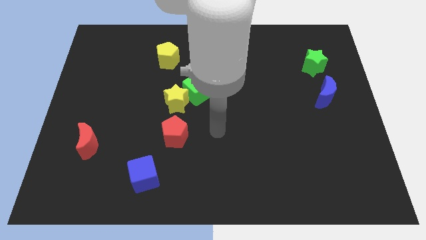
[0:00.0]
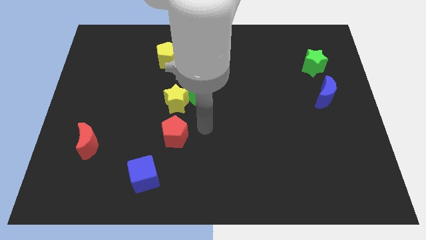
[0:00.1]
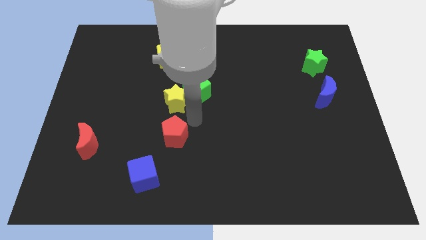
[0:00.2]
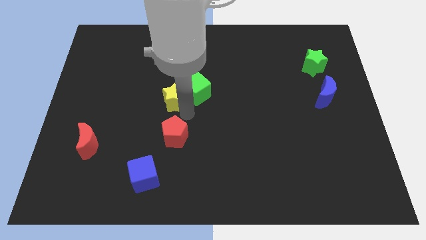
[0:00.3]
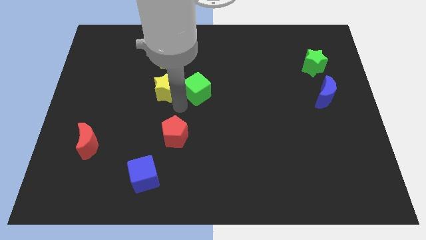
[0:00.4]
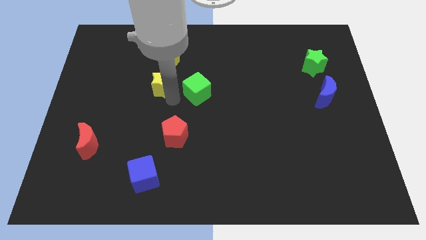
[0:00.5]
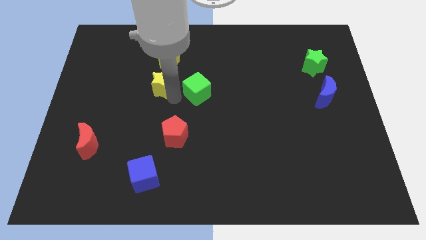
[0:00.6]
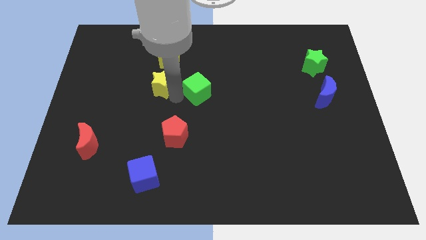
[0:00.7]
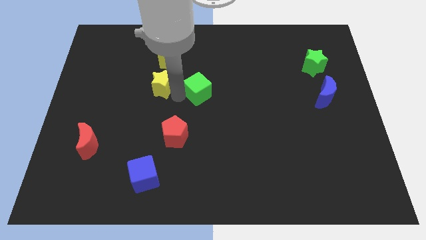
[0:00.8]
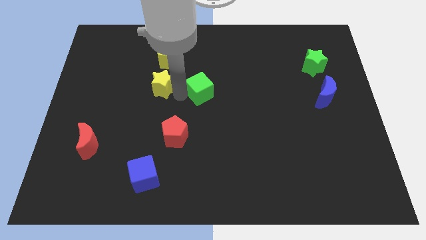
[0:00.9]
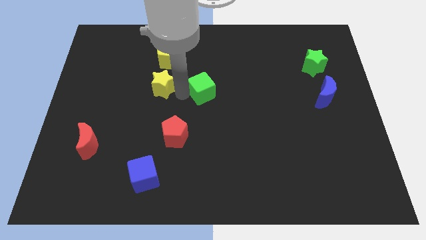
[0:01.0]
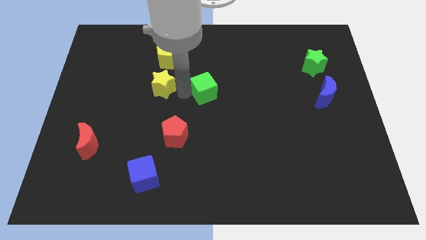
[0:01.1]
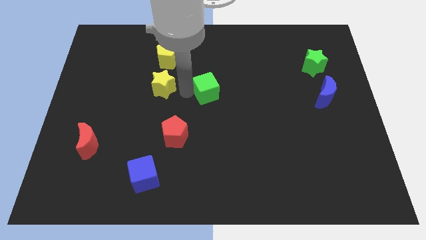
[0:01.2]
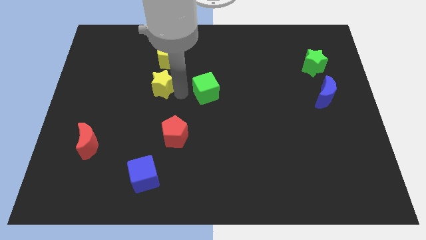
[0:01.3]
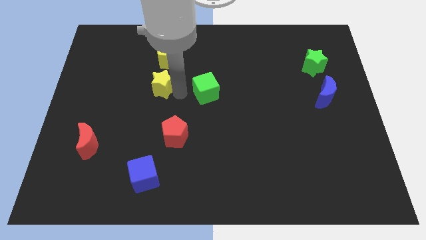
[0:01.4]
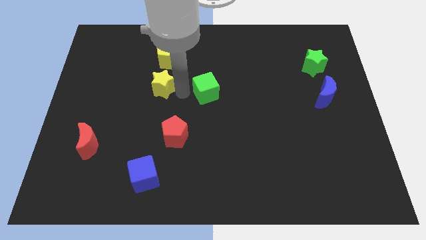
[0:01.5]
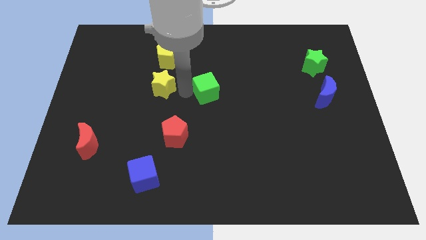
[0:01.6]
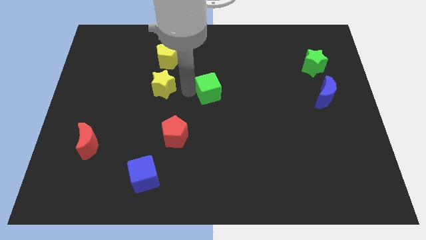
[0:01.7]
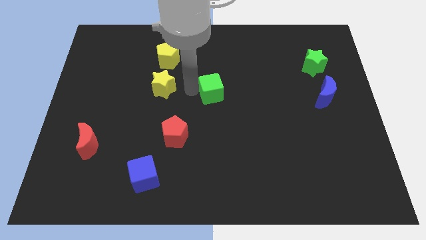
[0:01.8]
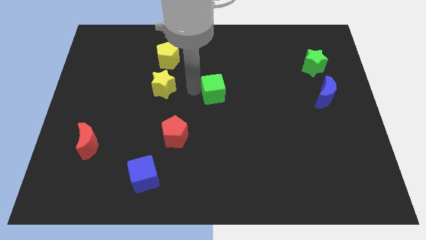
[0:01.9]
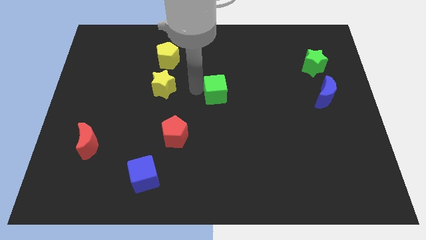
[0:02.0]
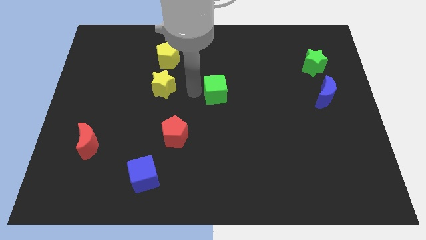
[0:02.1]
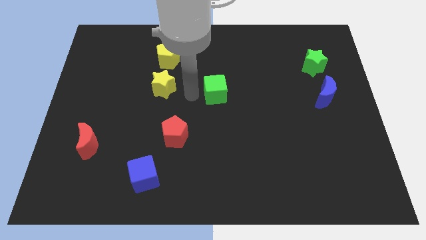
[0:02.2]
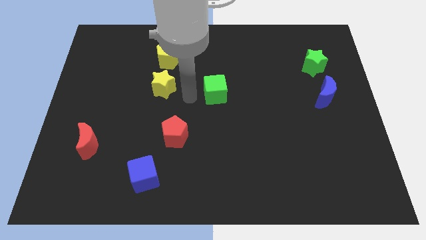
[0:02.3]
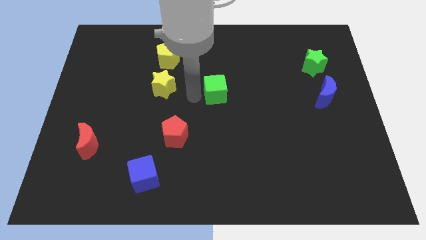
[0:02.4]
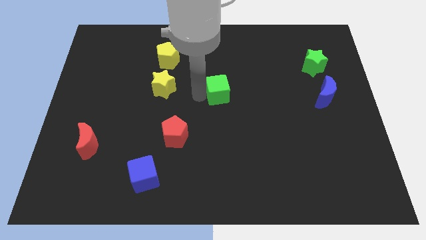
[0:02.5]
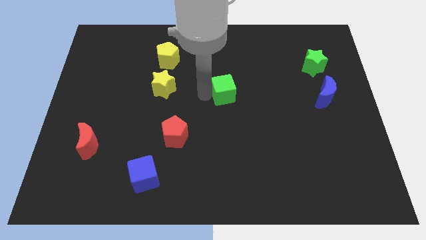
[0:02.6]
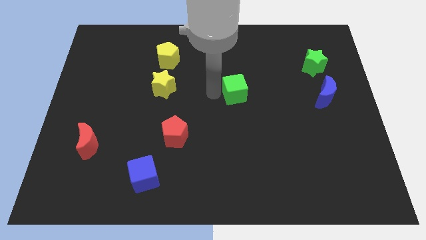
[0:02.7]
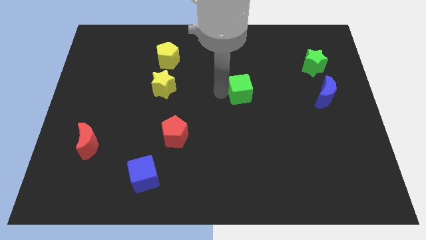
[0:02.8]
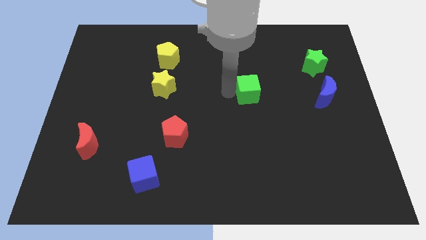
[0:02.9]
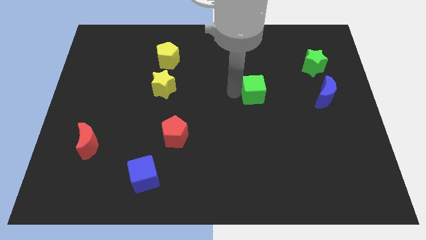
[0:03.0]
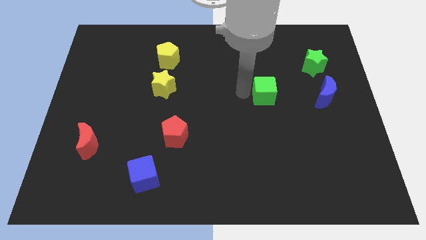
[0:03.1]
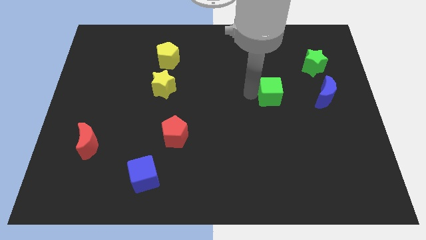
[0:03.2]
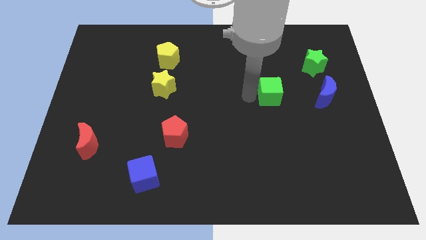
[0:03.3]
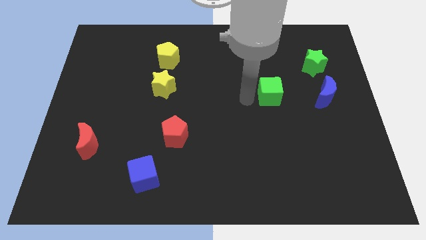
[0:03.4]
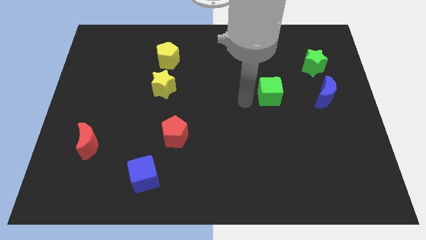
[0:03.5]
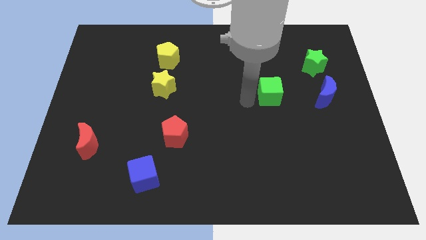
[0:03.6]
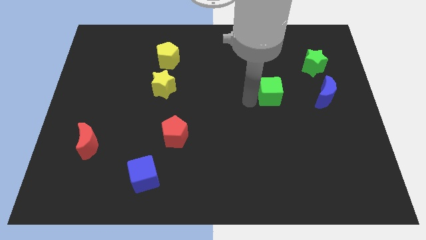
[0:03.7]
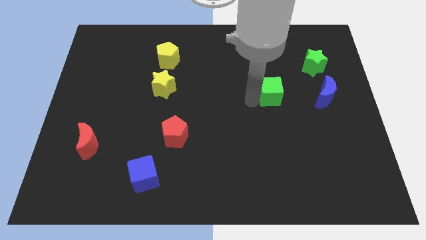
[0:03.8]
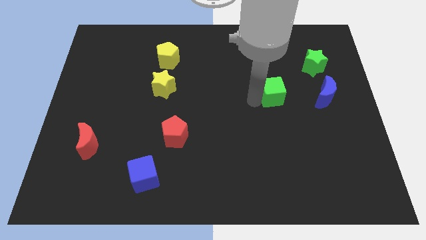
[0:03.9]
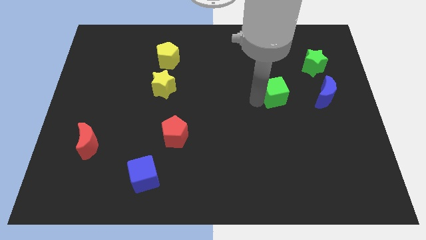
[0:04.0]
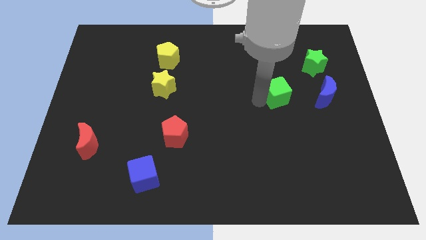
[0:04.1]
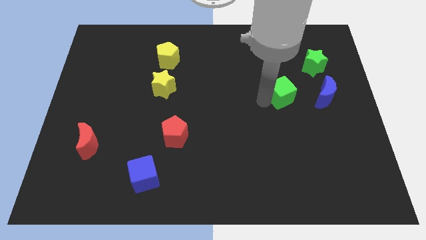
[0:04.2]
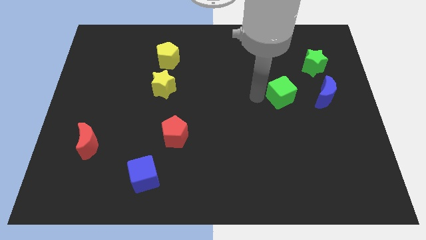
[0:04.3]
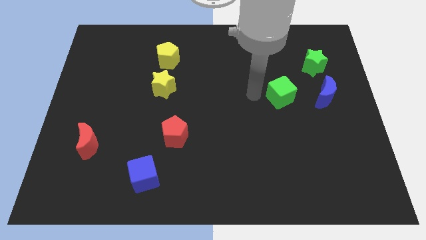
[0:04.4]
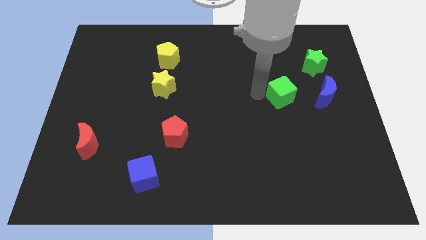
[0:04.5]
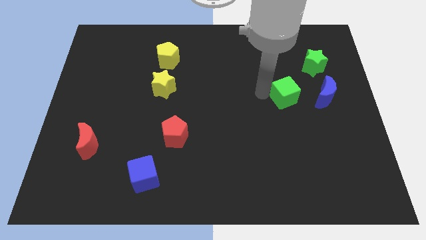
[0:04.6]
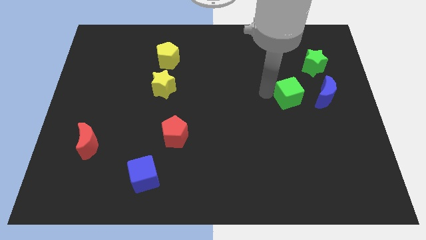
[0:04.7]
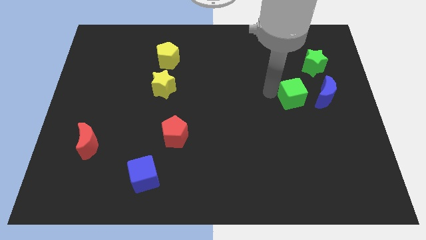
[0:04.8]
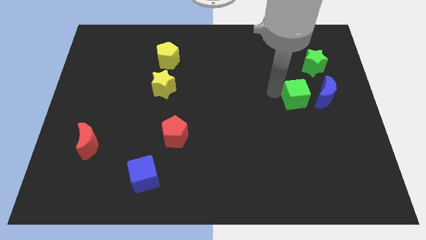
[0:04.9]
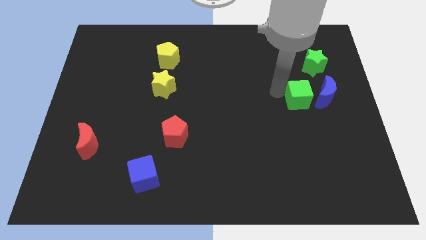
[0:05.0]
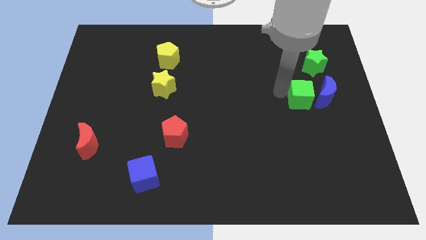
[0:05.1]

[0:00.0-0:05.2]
put the green cube towards the blue moon

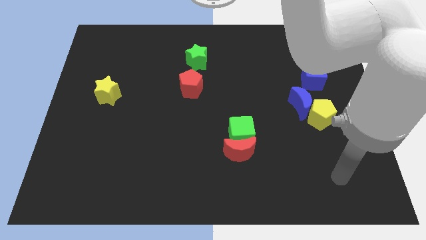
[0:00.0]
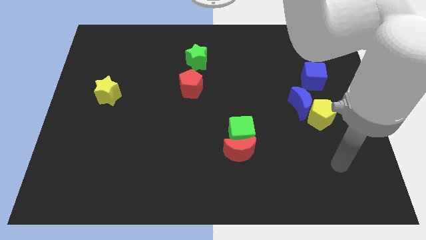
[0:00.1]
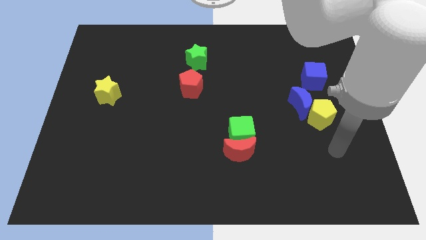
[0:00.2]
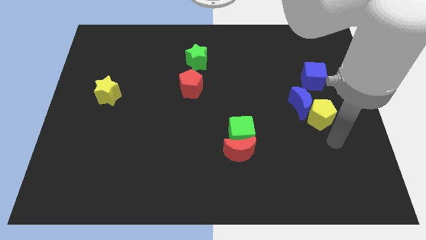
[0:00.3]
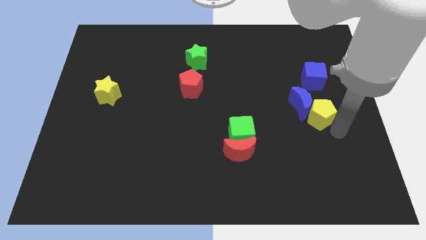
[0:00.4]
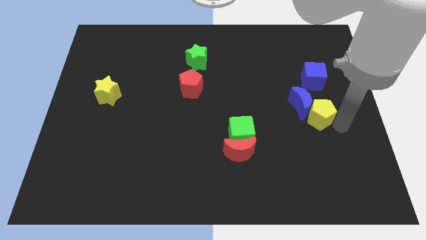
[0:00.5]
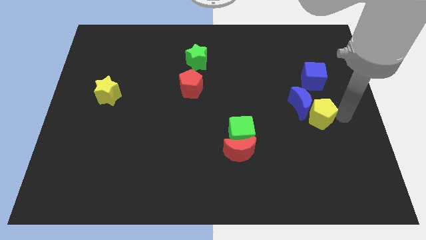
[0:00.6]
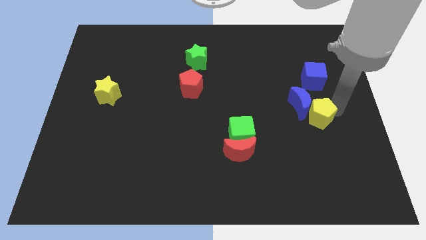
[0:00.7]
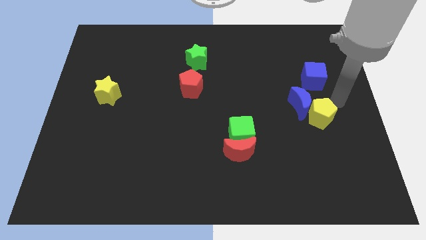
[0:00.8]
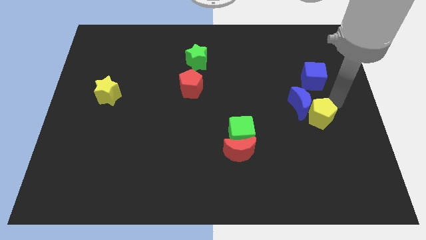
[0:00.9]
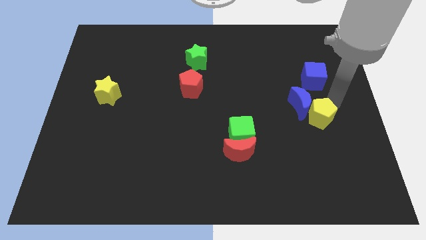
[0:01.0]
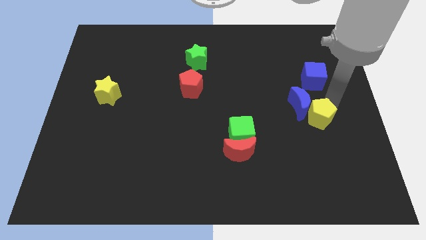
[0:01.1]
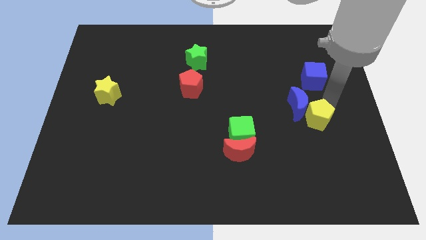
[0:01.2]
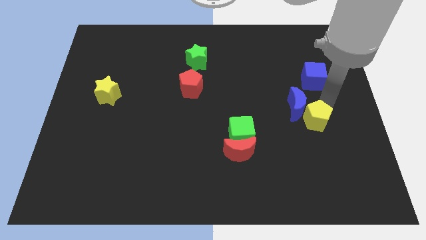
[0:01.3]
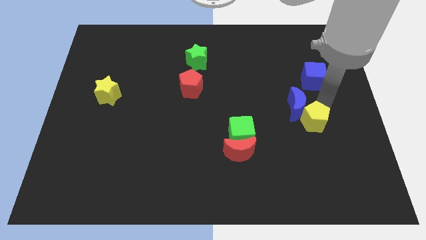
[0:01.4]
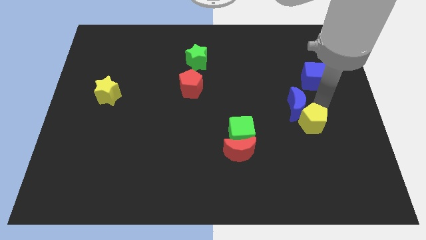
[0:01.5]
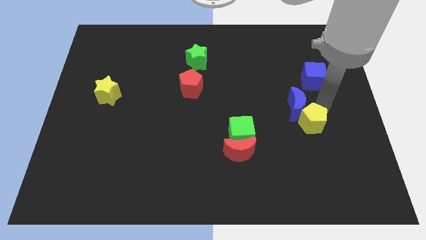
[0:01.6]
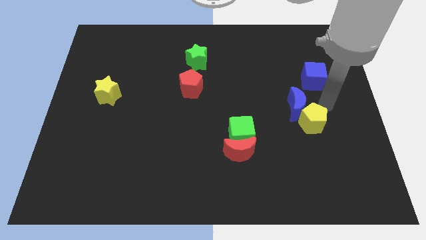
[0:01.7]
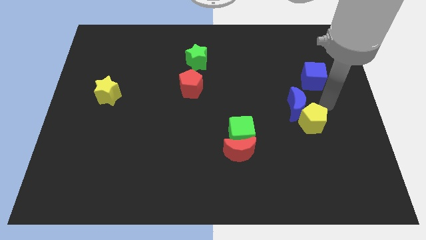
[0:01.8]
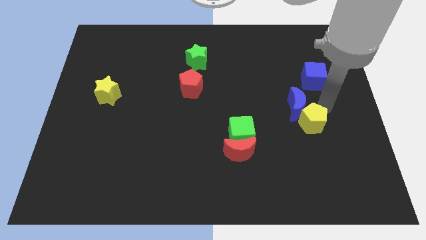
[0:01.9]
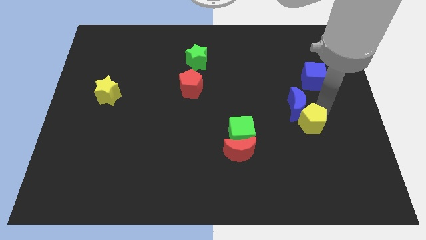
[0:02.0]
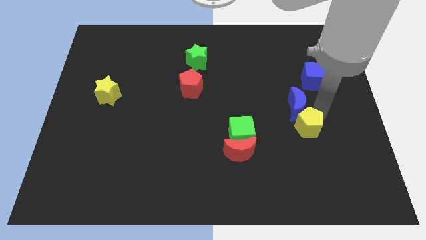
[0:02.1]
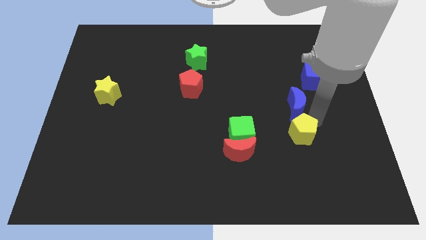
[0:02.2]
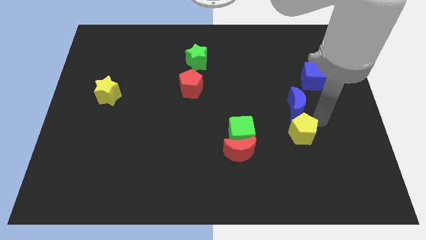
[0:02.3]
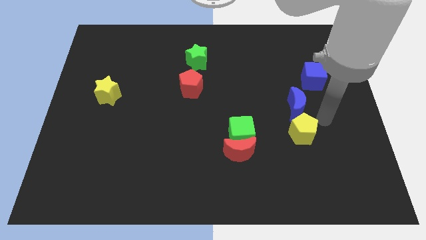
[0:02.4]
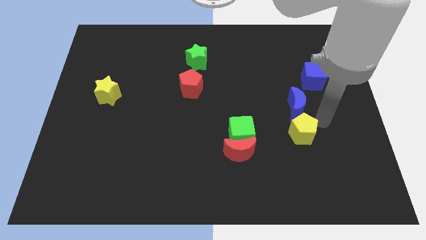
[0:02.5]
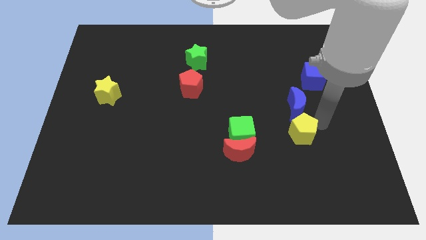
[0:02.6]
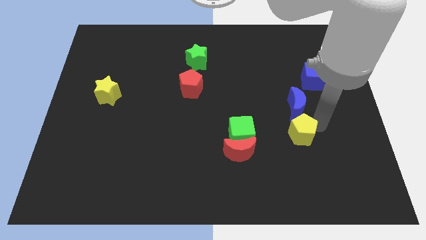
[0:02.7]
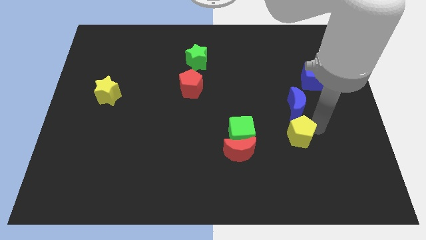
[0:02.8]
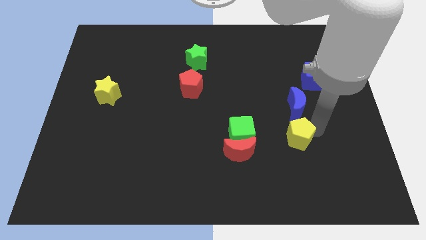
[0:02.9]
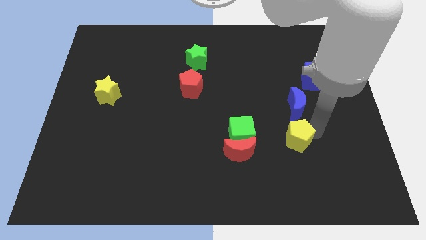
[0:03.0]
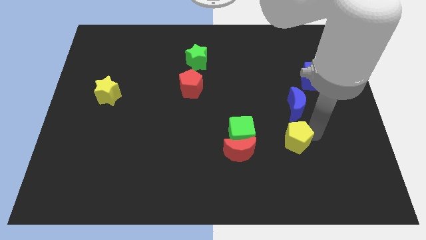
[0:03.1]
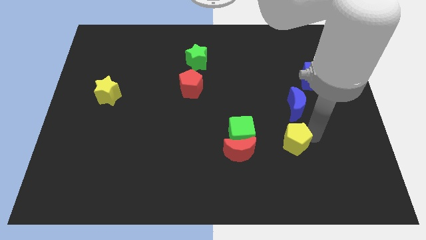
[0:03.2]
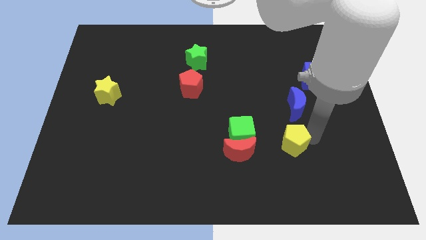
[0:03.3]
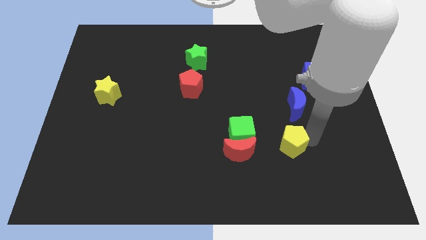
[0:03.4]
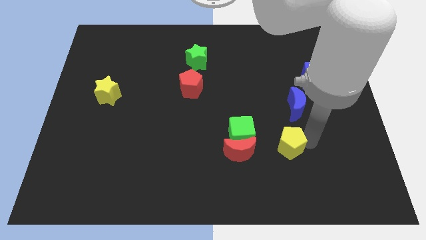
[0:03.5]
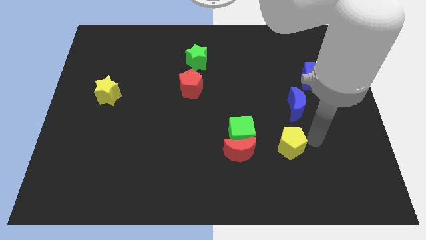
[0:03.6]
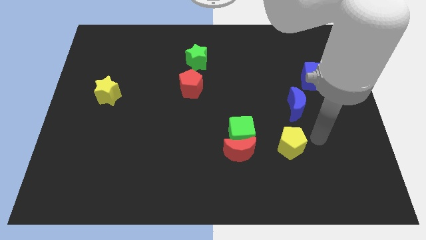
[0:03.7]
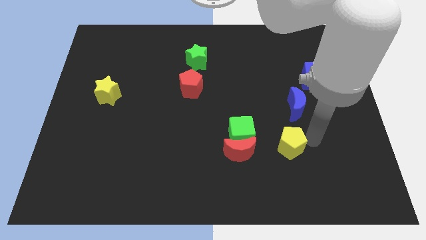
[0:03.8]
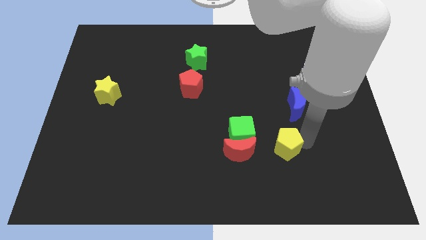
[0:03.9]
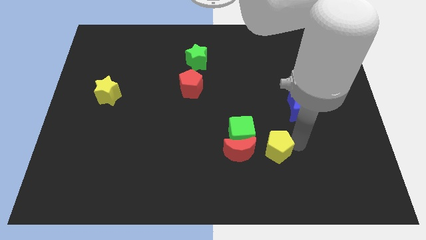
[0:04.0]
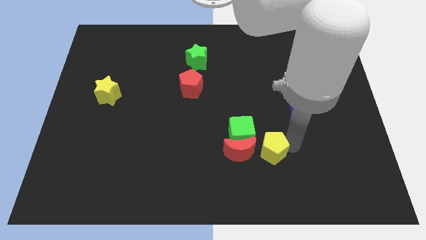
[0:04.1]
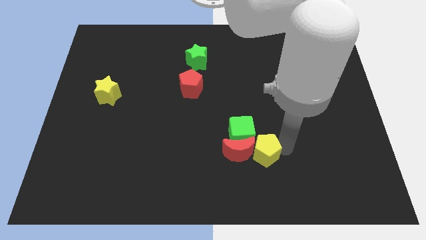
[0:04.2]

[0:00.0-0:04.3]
push the yellow pentagon to the red moon
